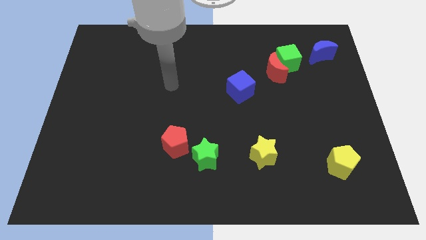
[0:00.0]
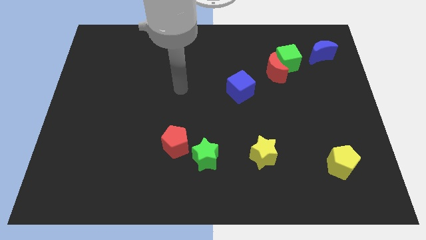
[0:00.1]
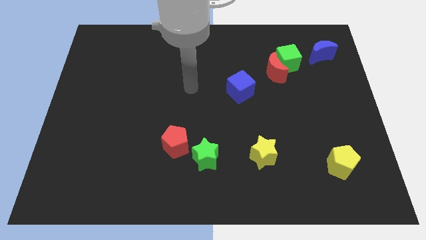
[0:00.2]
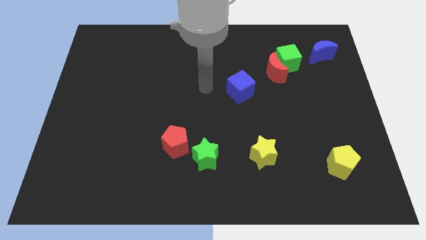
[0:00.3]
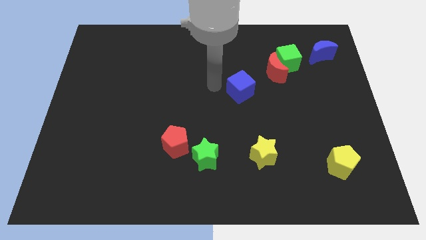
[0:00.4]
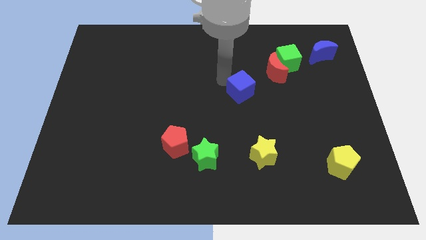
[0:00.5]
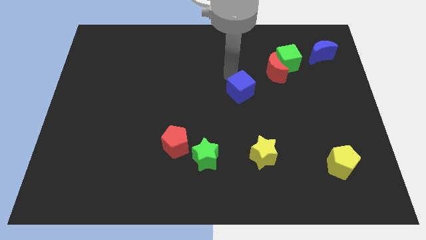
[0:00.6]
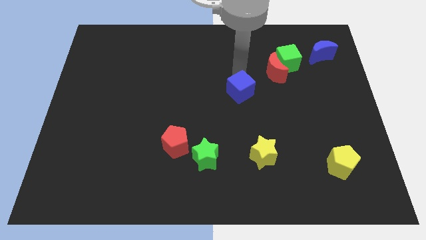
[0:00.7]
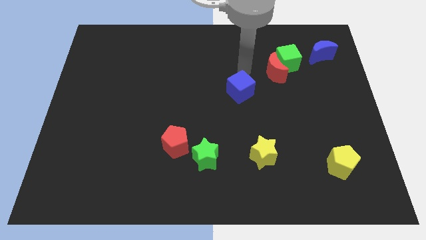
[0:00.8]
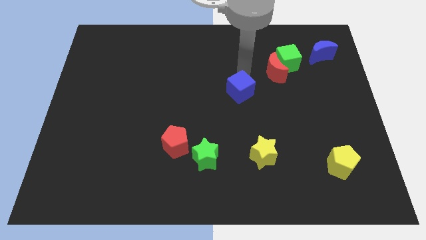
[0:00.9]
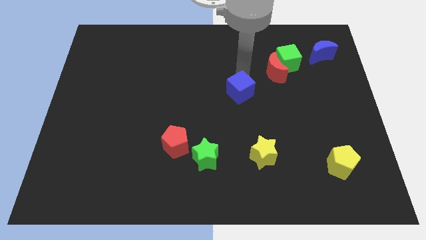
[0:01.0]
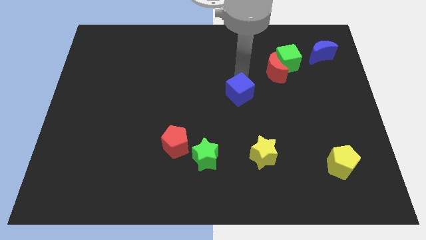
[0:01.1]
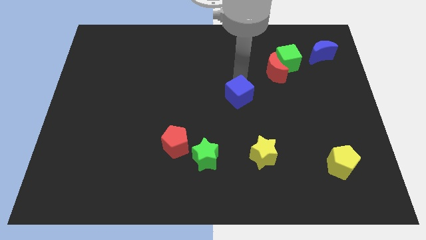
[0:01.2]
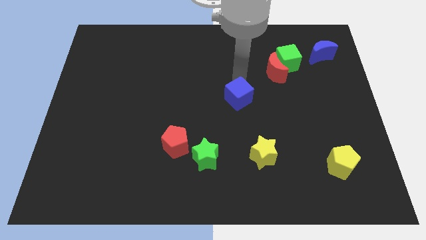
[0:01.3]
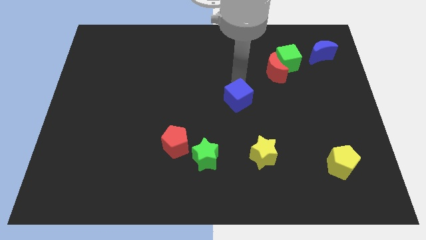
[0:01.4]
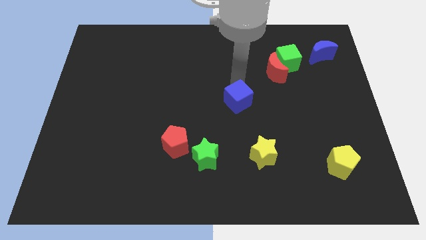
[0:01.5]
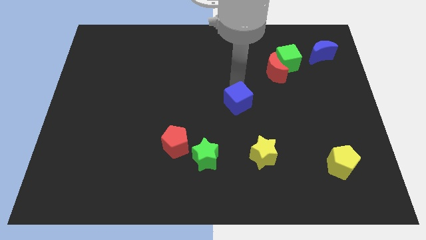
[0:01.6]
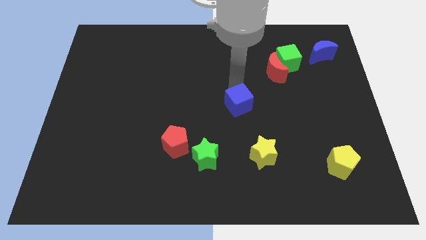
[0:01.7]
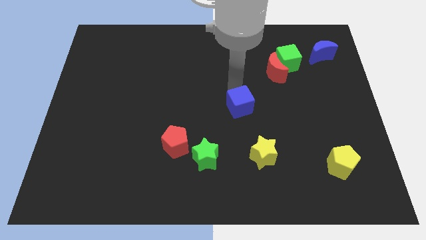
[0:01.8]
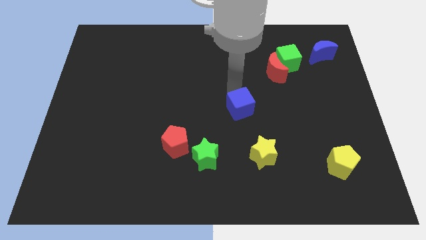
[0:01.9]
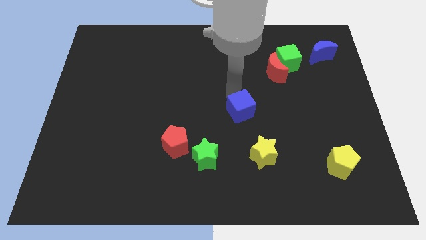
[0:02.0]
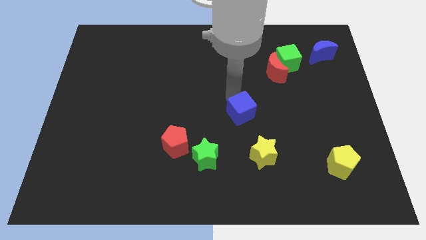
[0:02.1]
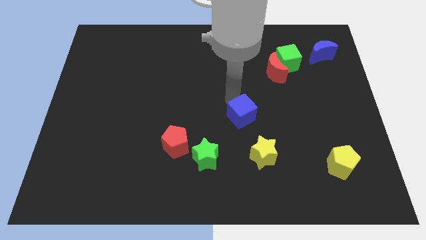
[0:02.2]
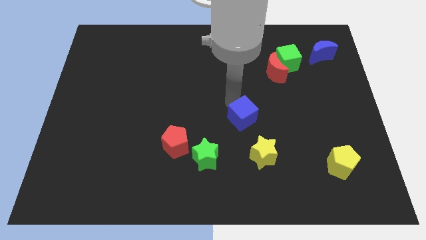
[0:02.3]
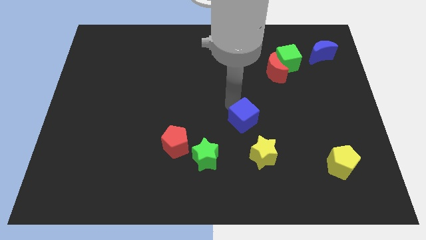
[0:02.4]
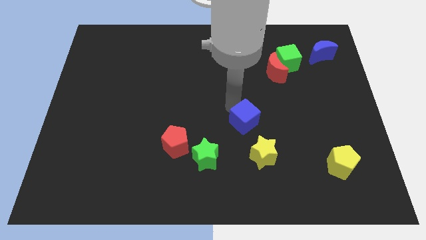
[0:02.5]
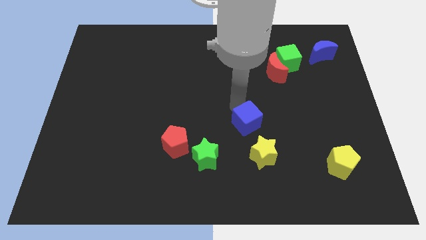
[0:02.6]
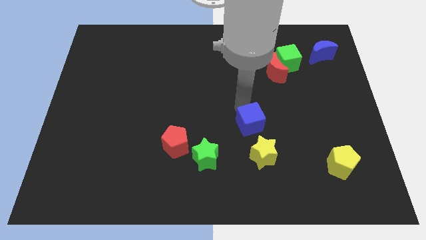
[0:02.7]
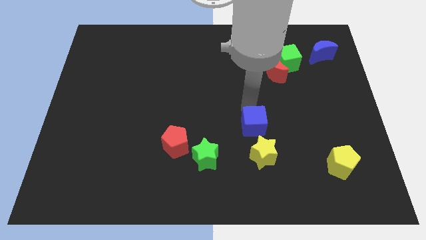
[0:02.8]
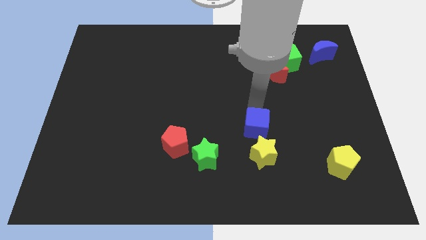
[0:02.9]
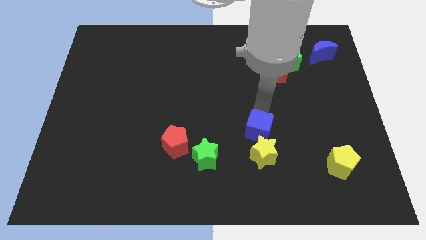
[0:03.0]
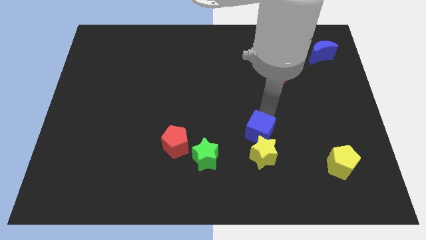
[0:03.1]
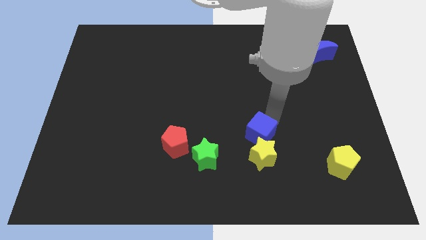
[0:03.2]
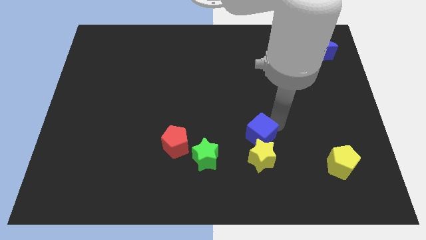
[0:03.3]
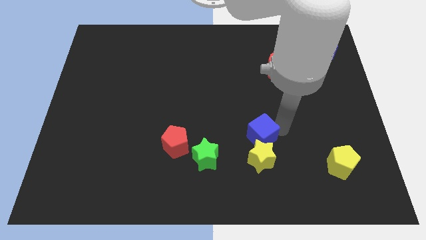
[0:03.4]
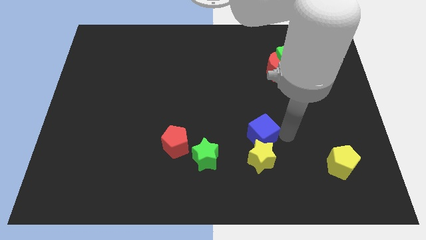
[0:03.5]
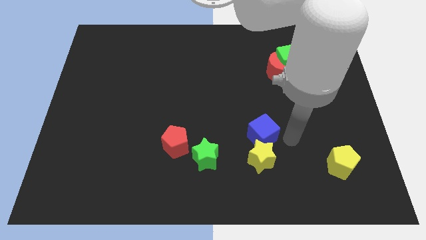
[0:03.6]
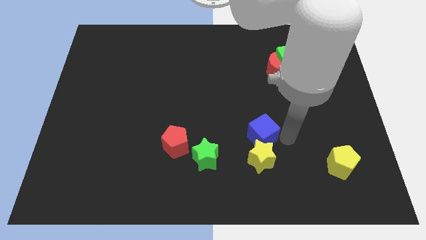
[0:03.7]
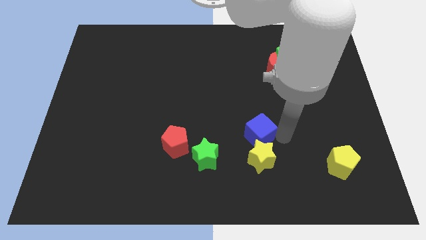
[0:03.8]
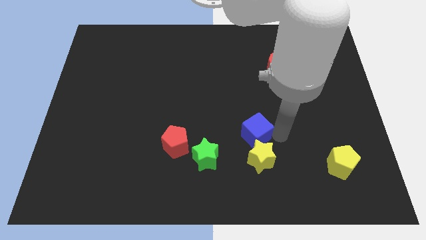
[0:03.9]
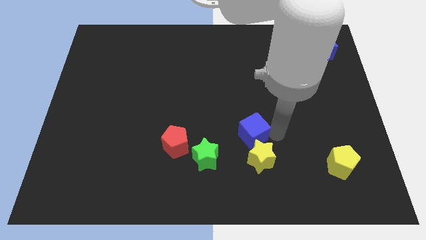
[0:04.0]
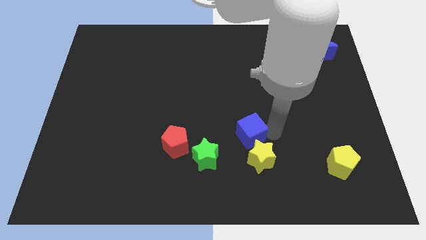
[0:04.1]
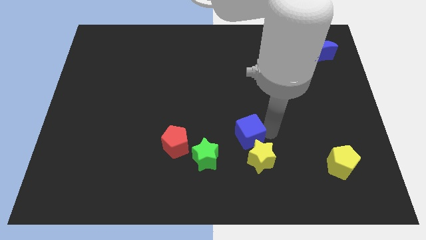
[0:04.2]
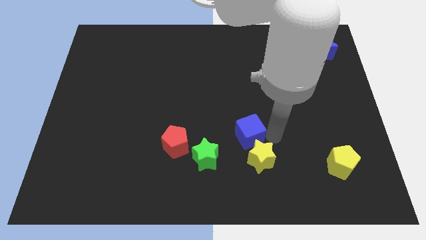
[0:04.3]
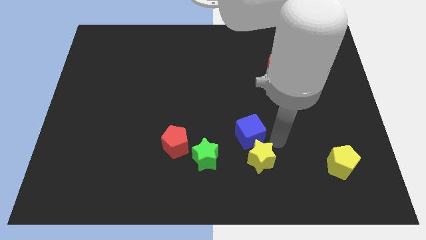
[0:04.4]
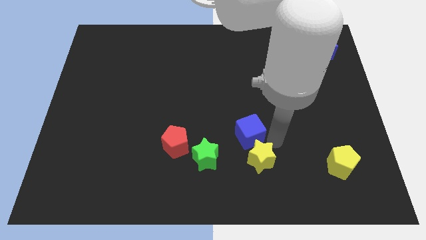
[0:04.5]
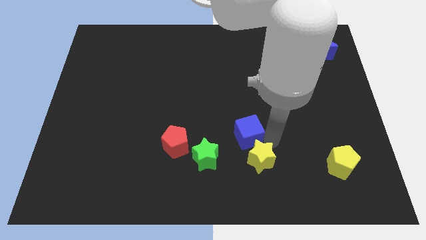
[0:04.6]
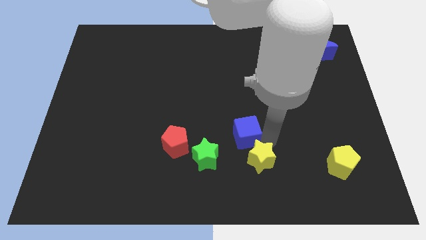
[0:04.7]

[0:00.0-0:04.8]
put the blue cube just right of the red pentagon

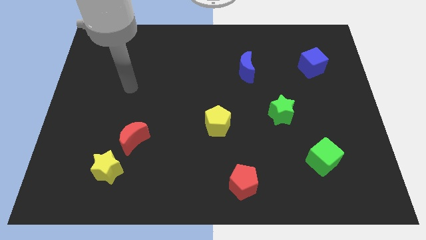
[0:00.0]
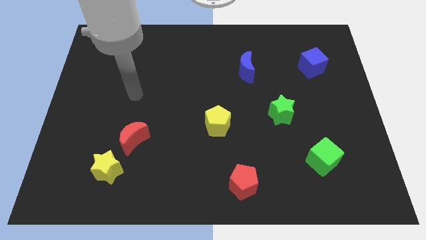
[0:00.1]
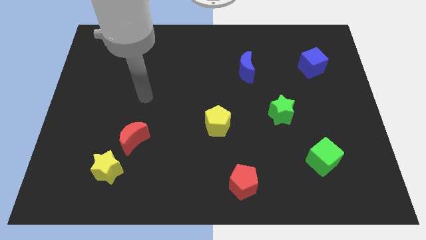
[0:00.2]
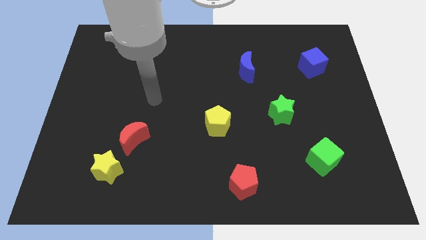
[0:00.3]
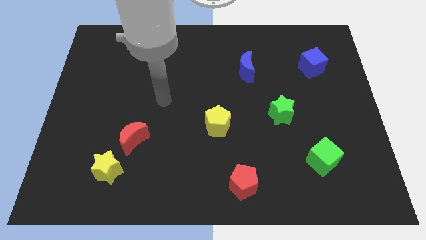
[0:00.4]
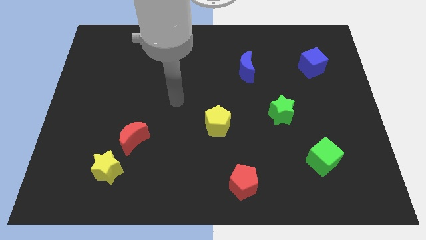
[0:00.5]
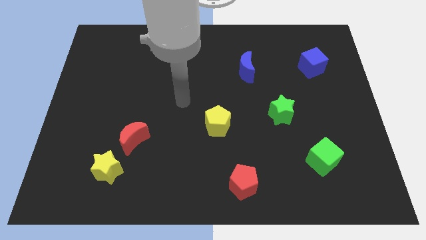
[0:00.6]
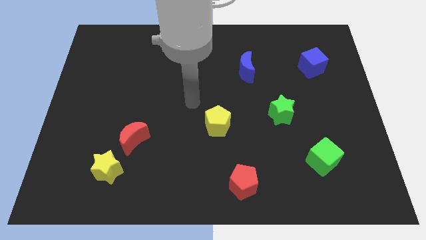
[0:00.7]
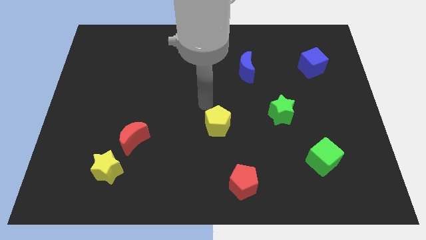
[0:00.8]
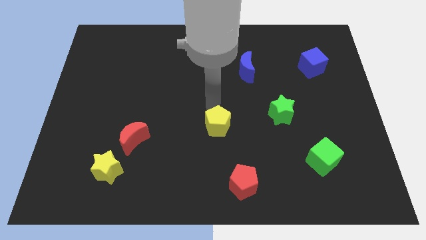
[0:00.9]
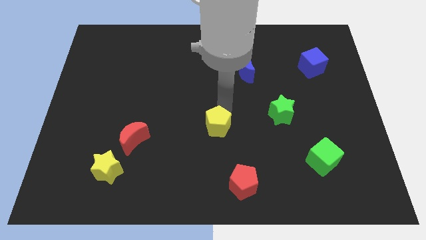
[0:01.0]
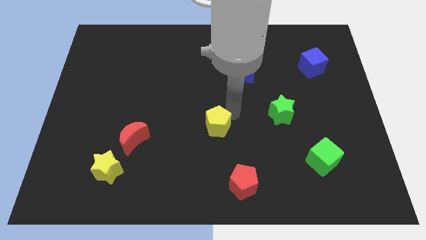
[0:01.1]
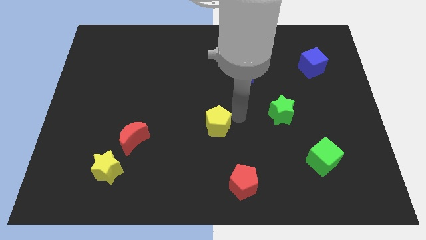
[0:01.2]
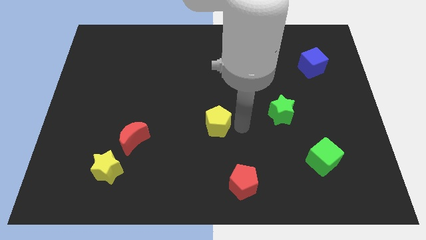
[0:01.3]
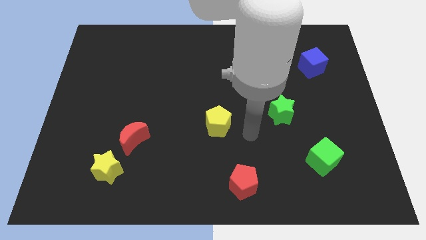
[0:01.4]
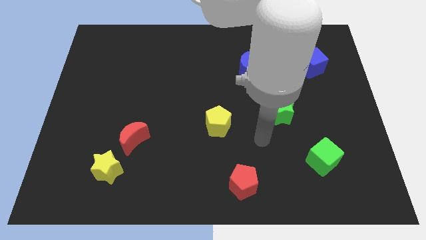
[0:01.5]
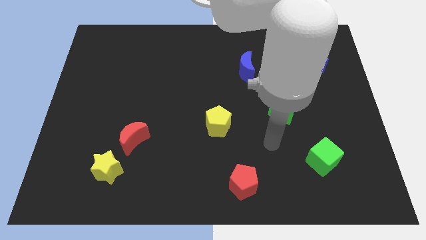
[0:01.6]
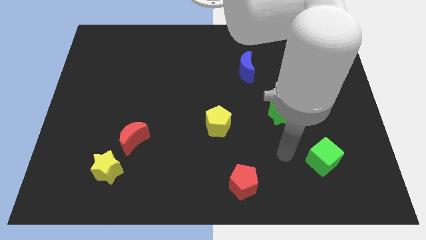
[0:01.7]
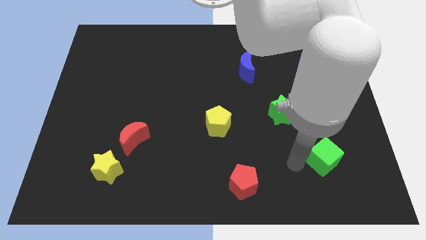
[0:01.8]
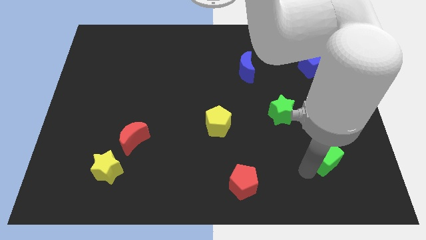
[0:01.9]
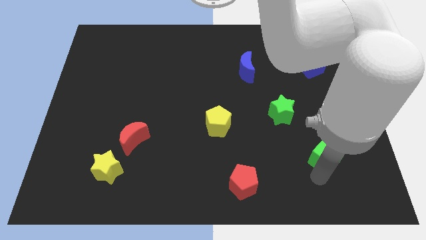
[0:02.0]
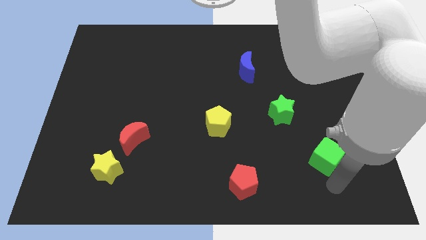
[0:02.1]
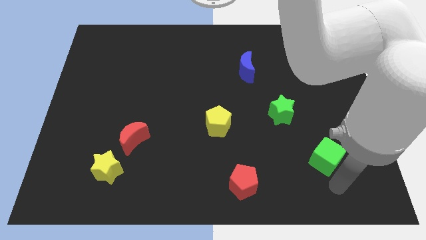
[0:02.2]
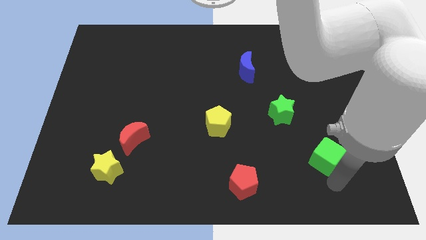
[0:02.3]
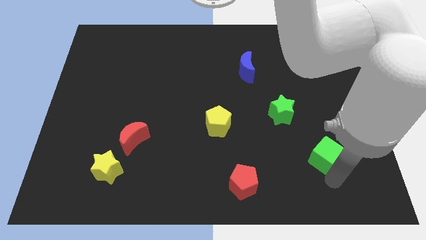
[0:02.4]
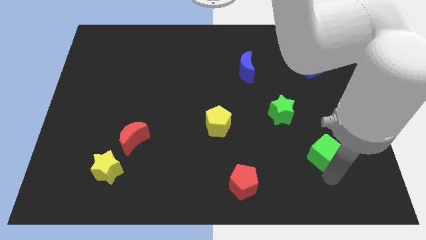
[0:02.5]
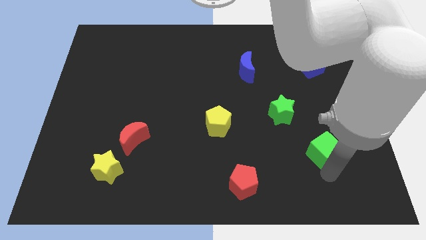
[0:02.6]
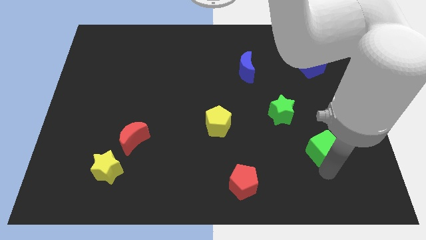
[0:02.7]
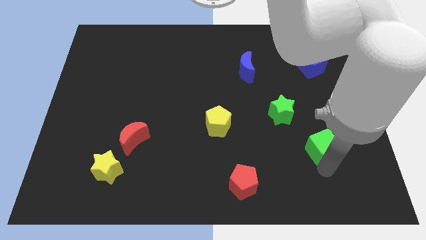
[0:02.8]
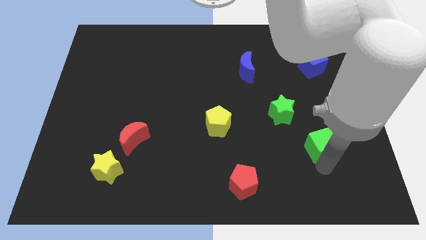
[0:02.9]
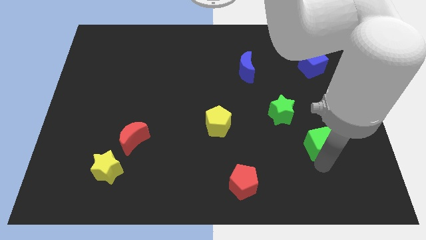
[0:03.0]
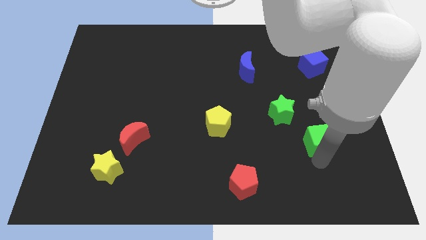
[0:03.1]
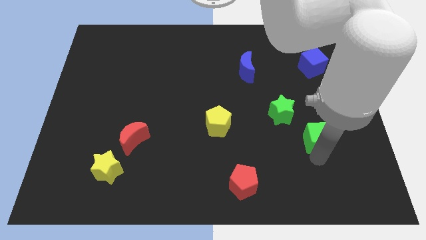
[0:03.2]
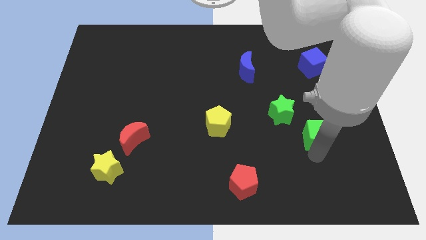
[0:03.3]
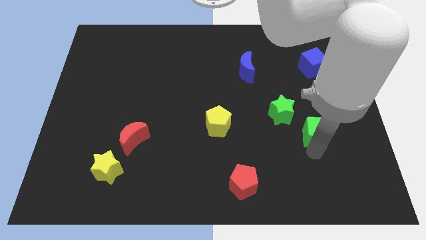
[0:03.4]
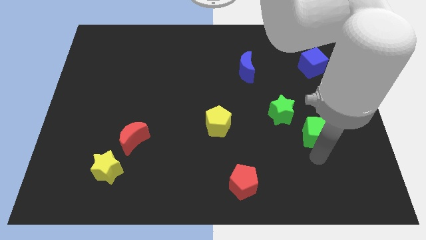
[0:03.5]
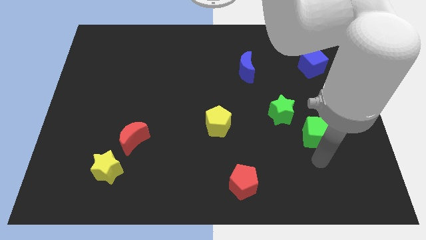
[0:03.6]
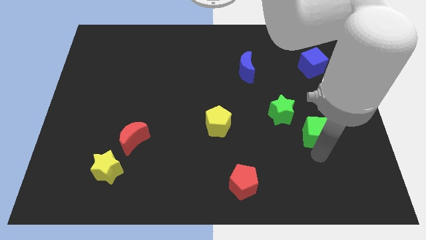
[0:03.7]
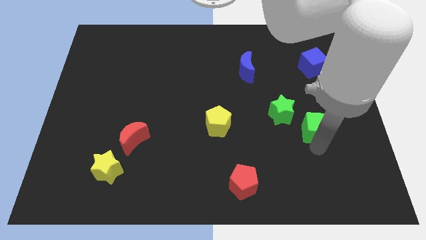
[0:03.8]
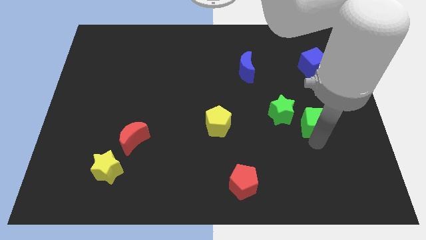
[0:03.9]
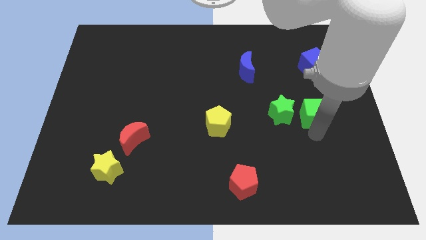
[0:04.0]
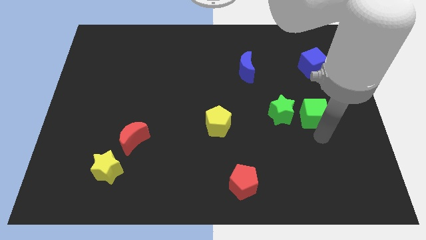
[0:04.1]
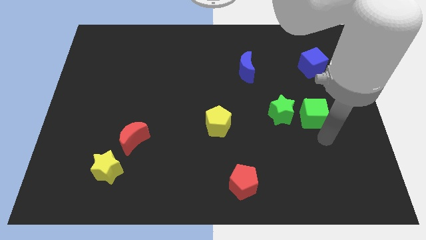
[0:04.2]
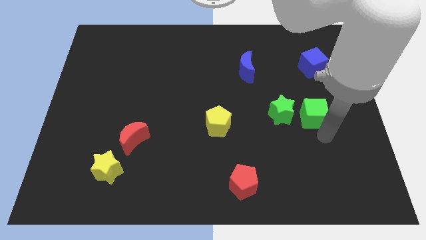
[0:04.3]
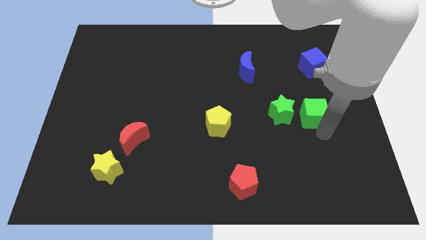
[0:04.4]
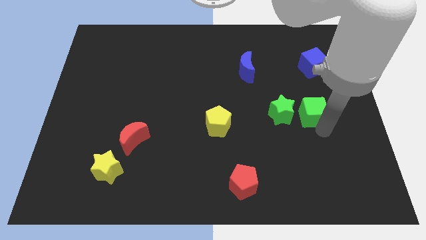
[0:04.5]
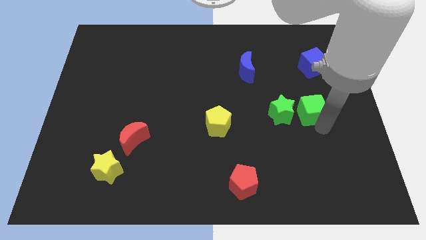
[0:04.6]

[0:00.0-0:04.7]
put the green cube to the top right side of the green star
